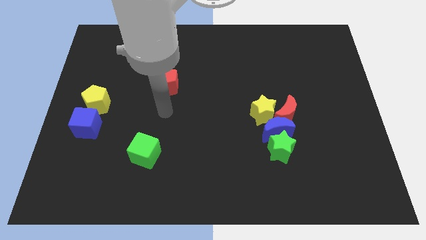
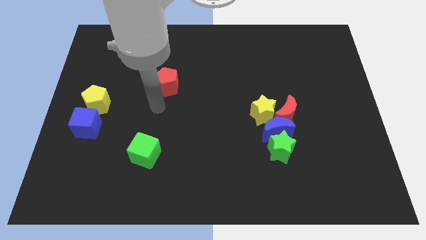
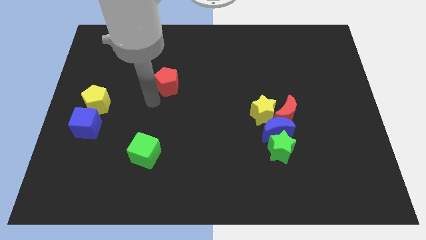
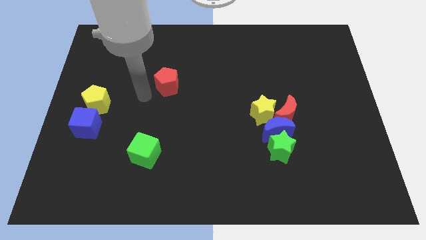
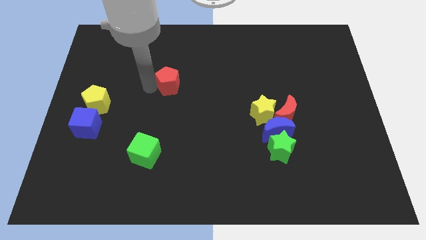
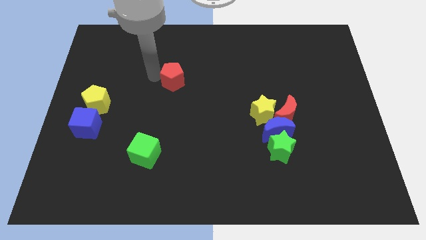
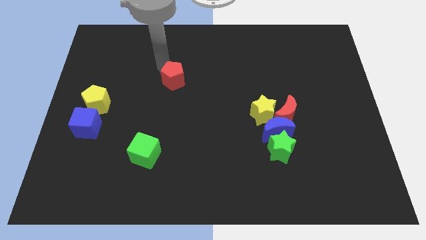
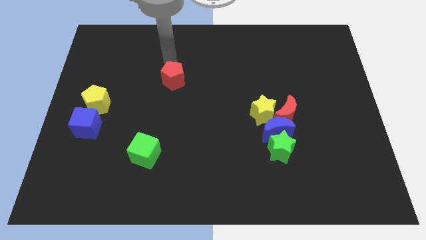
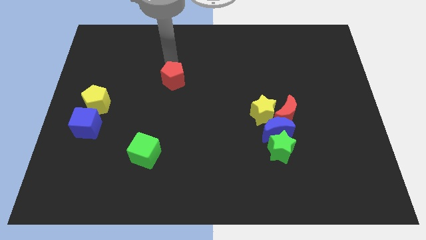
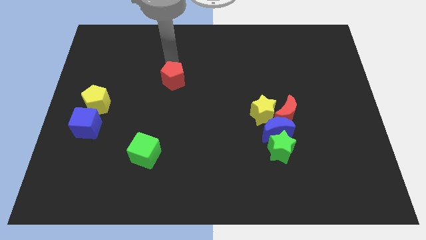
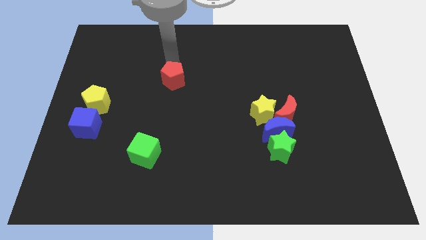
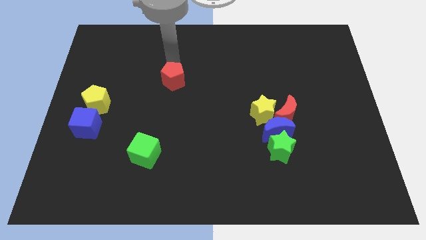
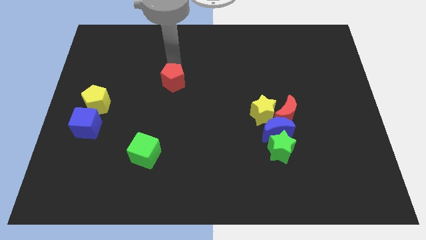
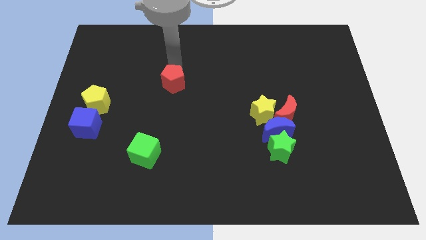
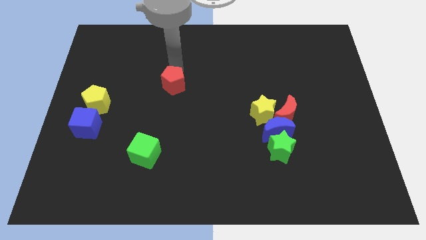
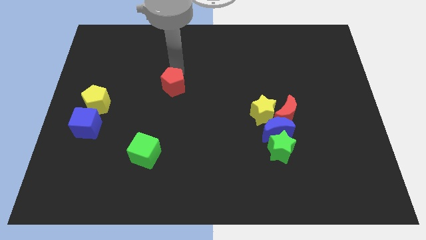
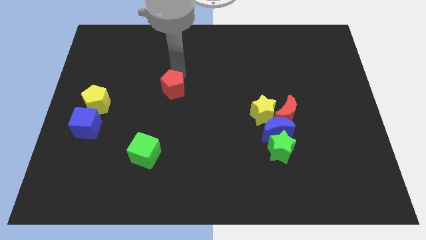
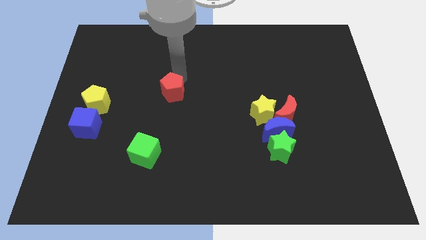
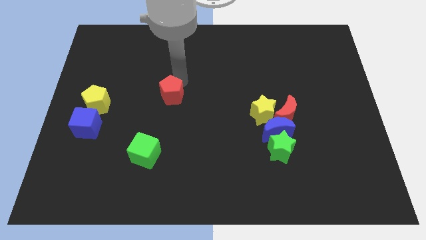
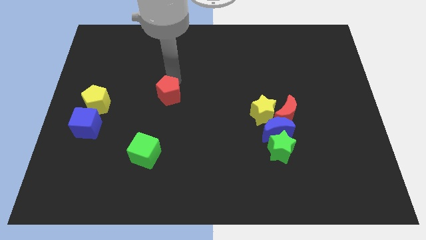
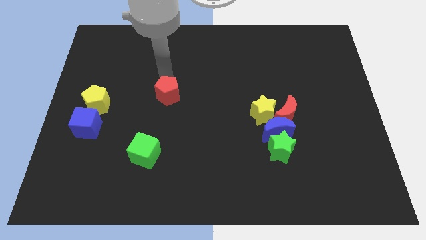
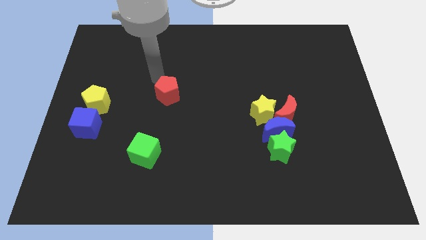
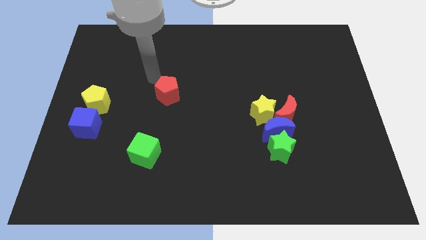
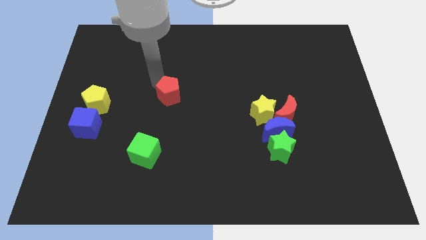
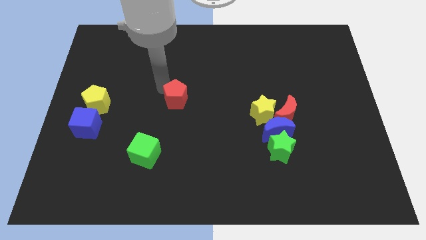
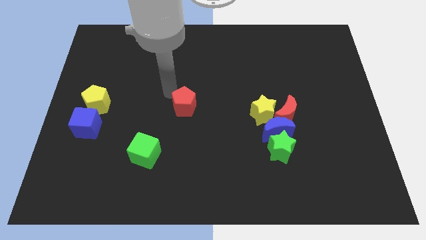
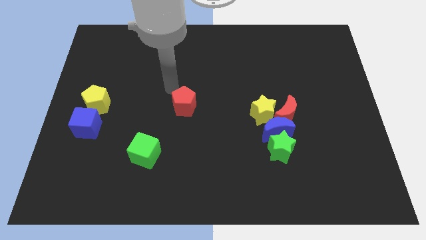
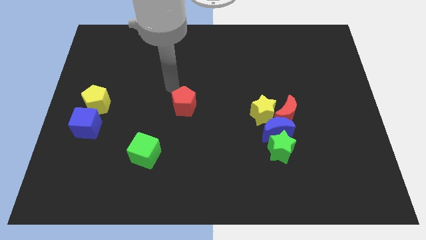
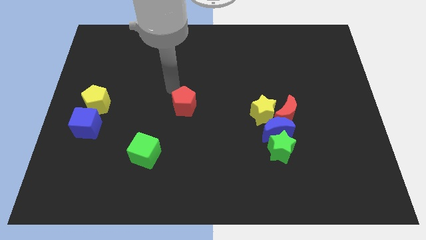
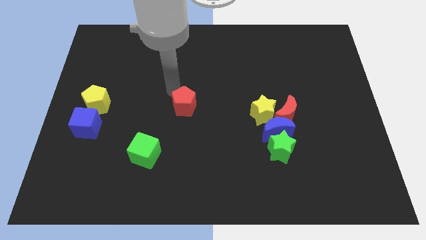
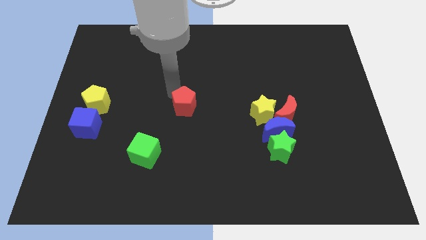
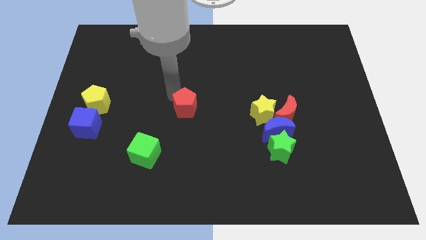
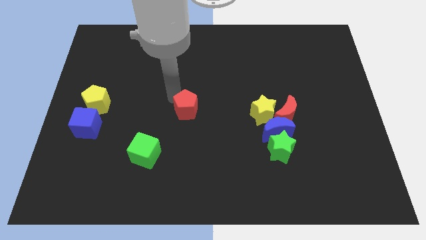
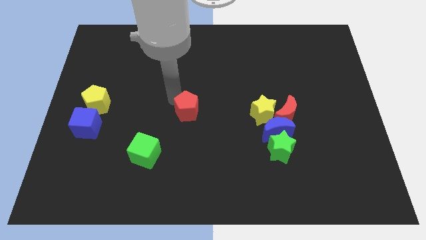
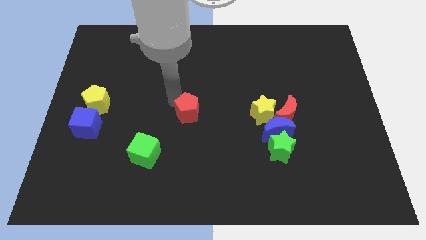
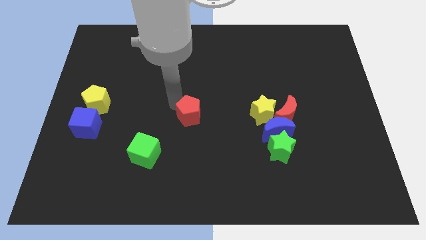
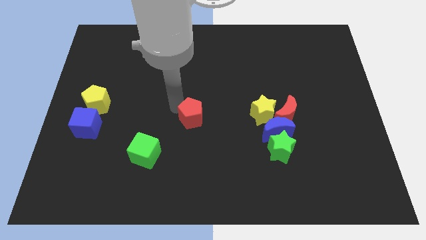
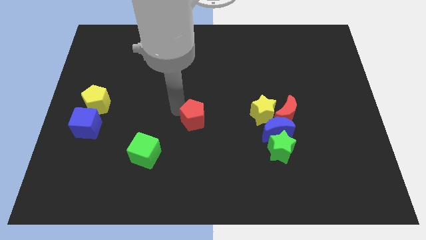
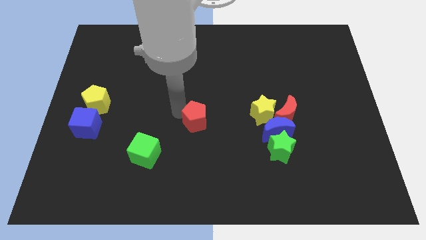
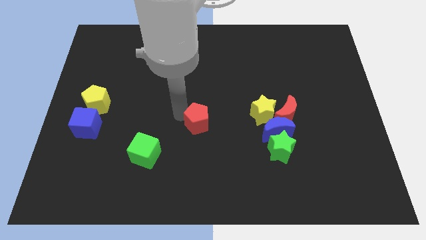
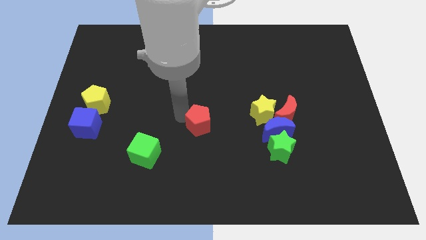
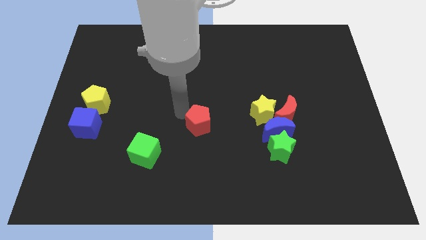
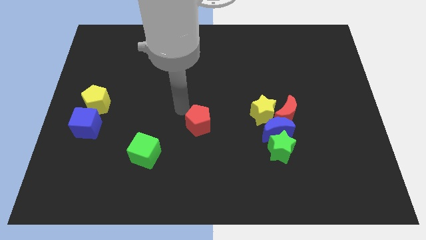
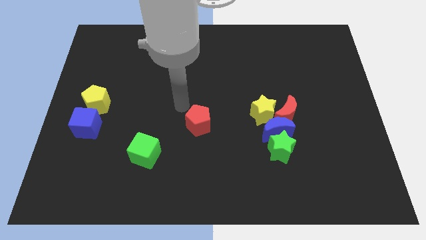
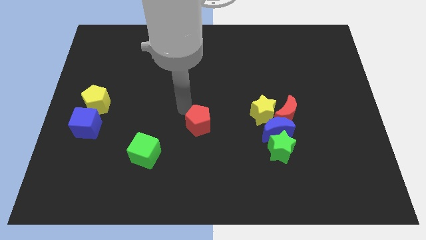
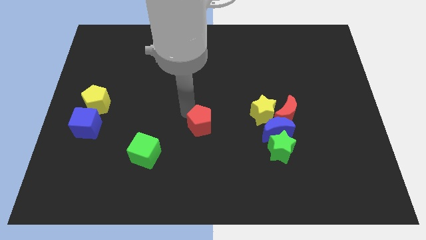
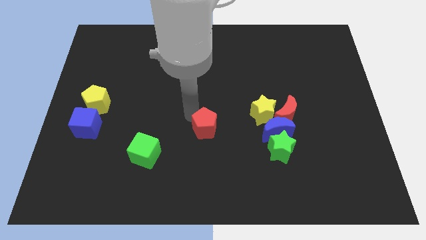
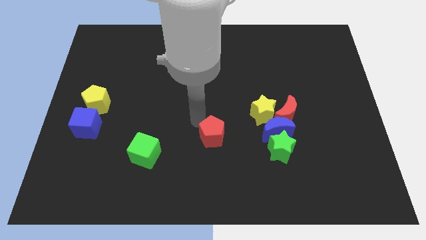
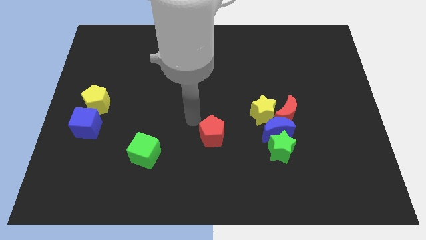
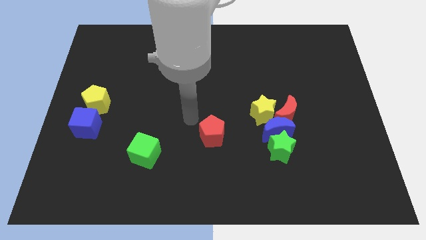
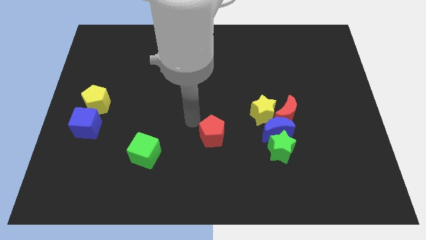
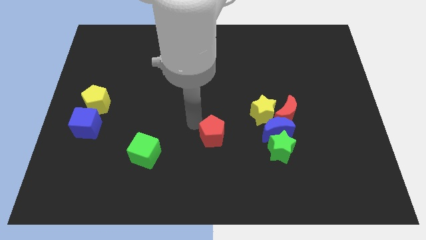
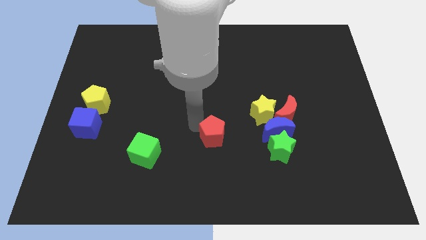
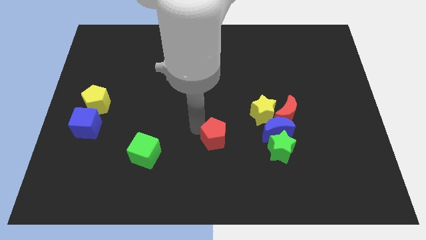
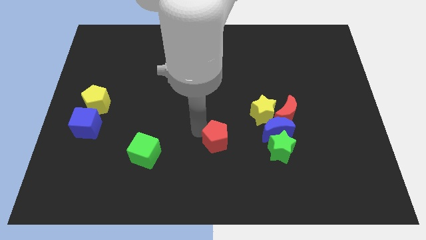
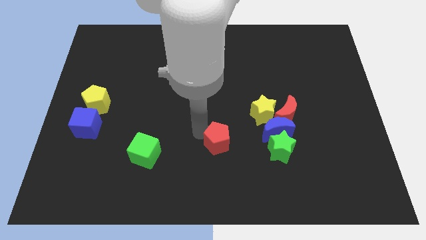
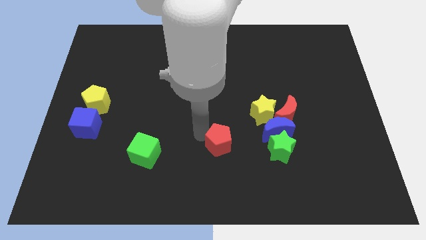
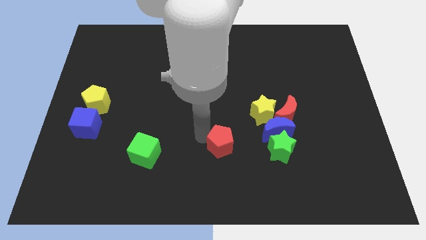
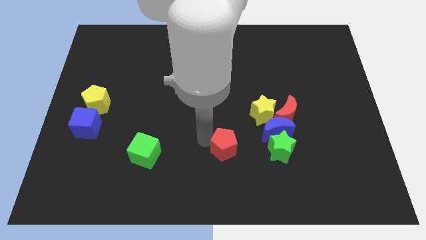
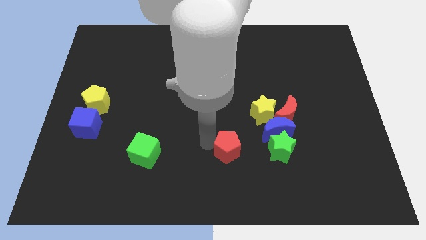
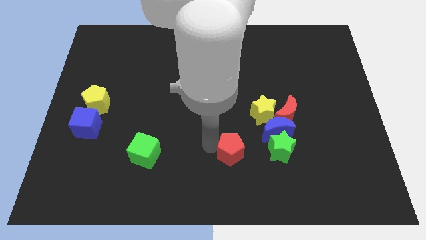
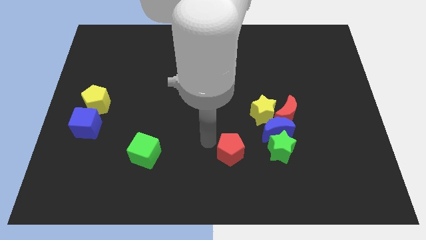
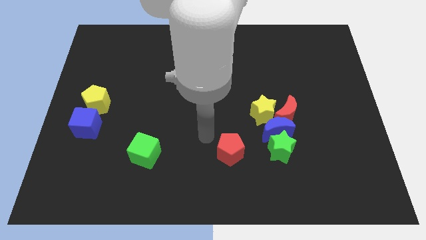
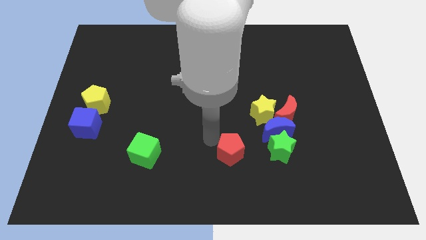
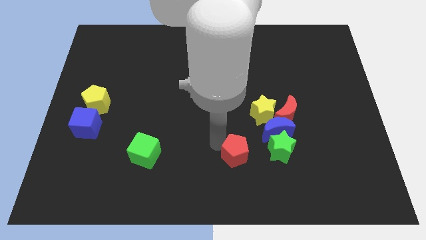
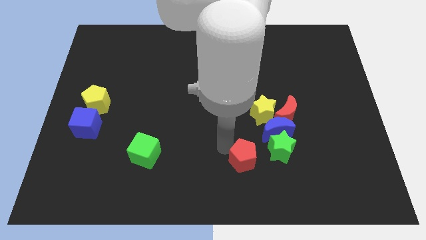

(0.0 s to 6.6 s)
push the red pentagon to the bottom left of the green star
